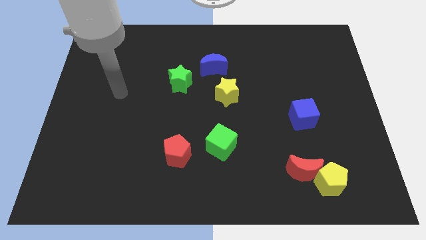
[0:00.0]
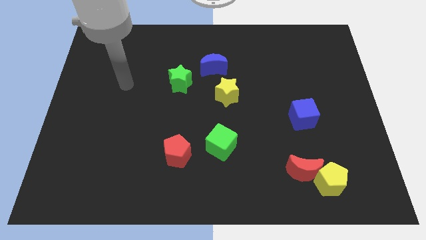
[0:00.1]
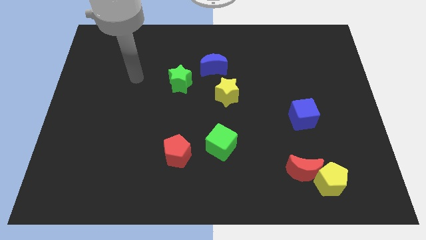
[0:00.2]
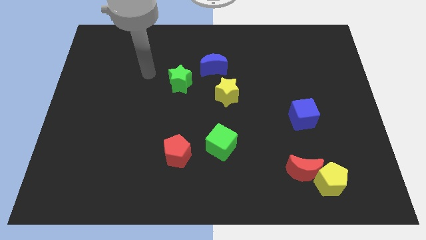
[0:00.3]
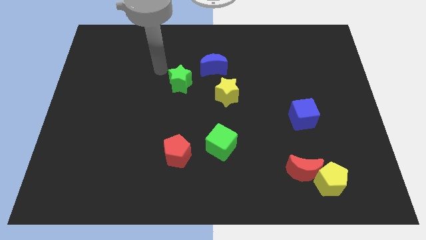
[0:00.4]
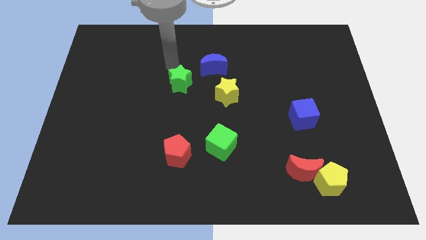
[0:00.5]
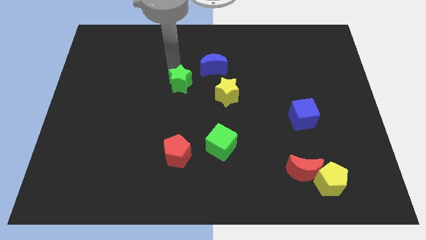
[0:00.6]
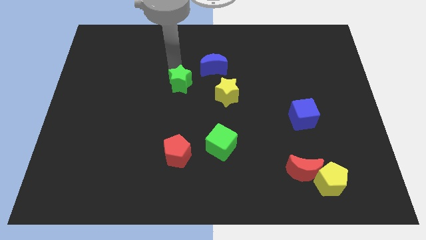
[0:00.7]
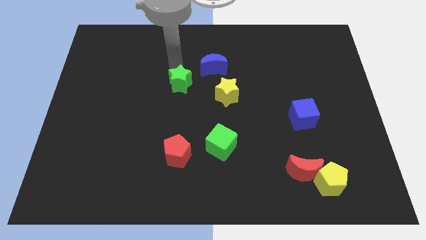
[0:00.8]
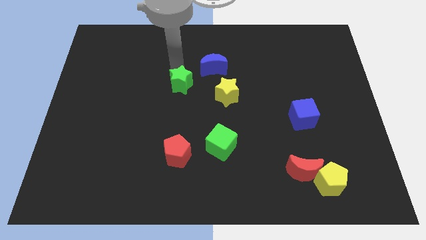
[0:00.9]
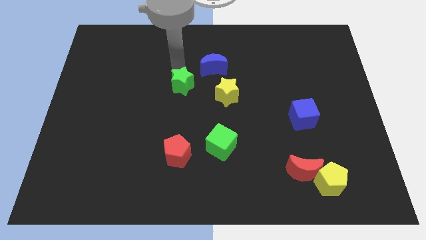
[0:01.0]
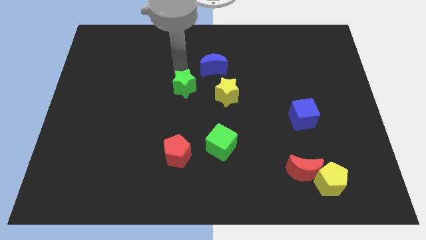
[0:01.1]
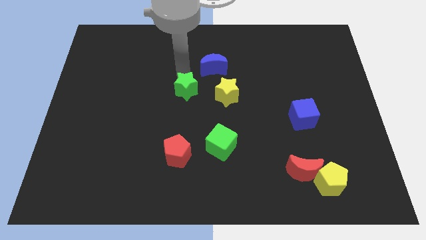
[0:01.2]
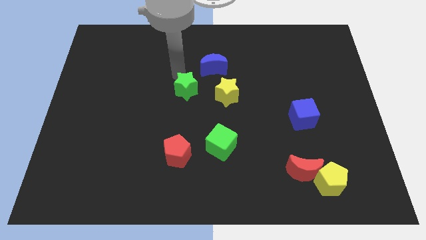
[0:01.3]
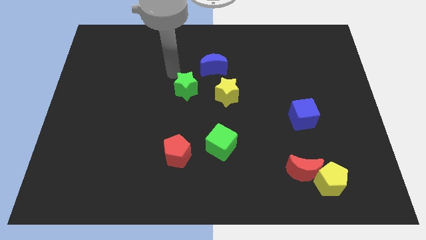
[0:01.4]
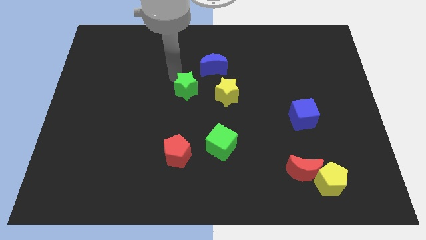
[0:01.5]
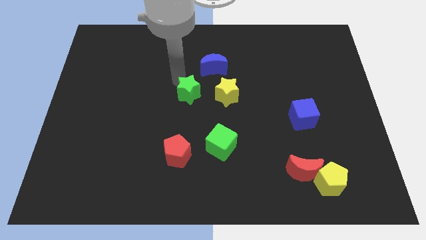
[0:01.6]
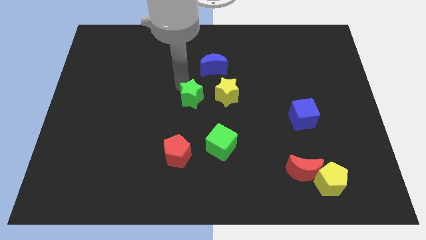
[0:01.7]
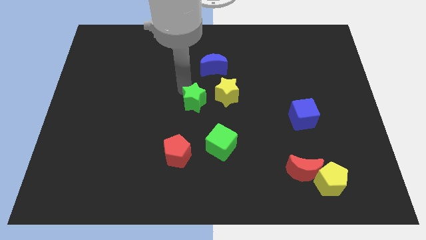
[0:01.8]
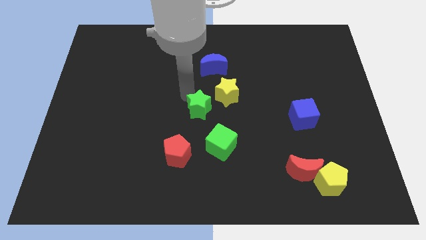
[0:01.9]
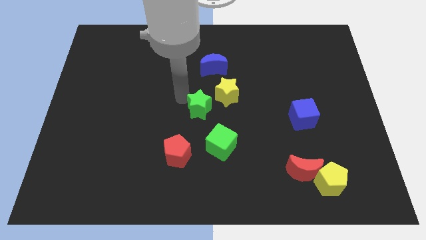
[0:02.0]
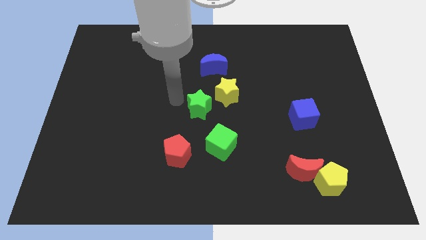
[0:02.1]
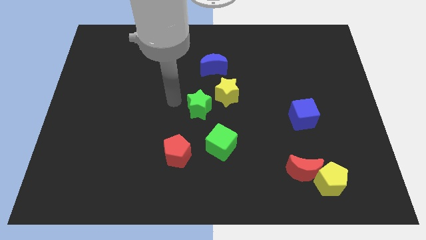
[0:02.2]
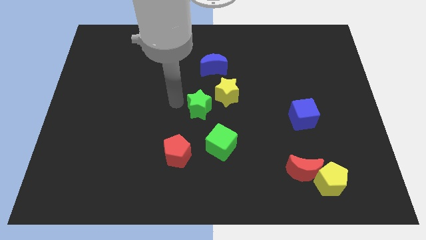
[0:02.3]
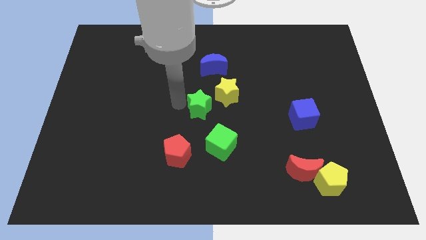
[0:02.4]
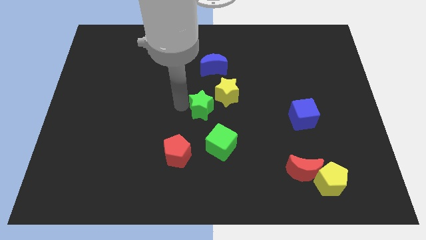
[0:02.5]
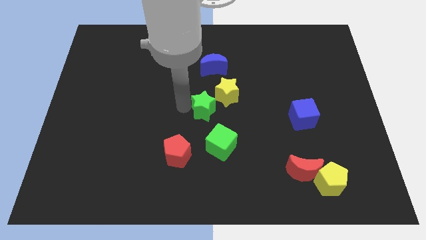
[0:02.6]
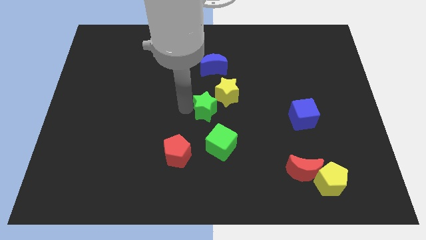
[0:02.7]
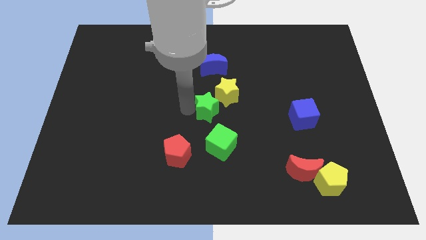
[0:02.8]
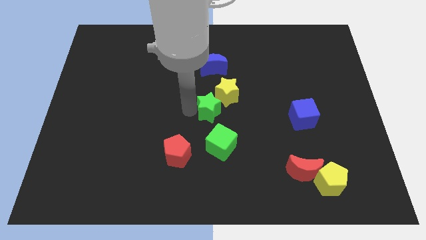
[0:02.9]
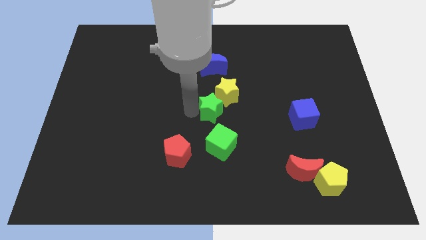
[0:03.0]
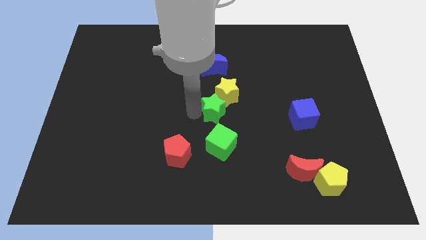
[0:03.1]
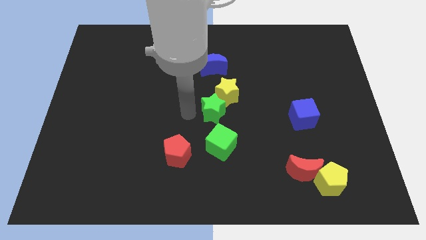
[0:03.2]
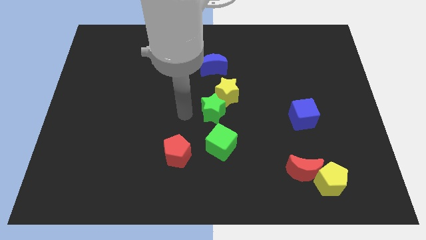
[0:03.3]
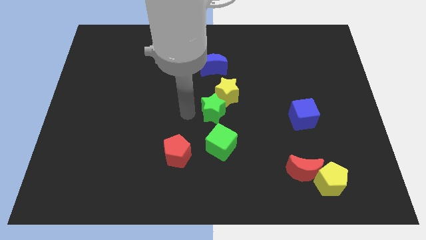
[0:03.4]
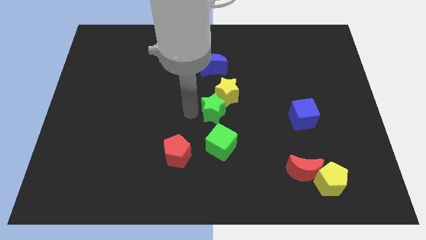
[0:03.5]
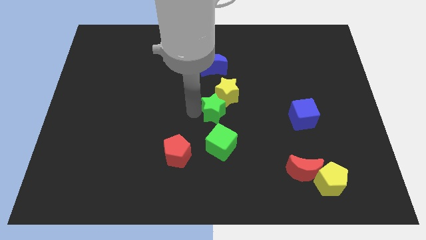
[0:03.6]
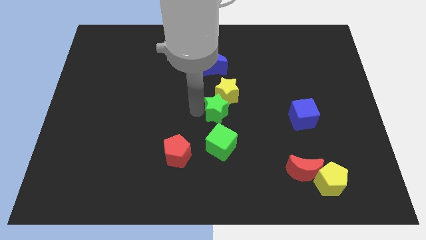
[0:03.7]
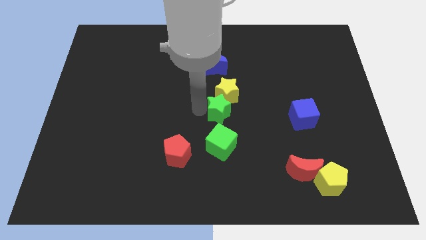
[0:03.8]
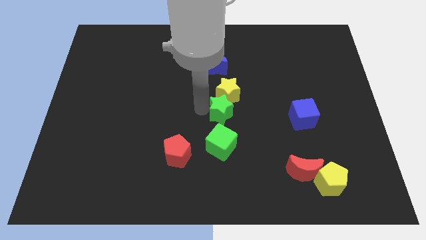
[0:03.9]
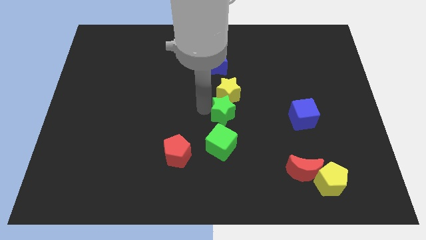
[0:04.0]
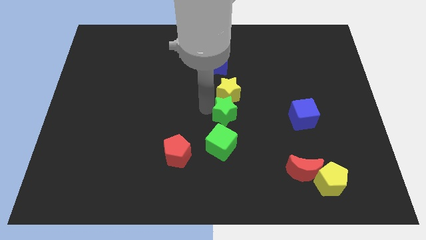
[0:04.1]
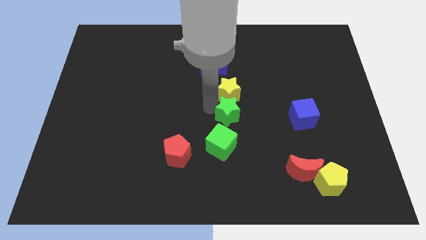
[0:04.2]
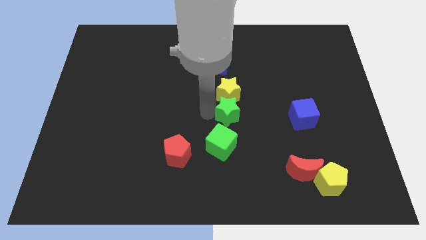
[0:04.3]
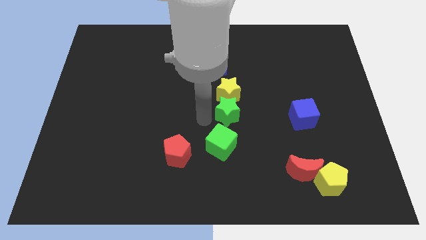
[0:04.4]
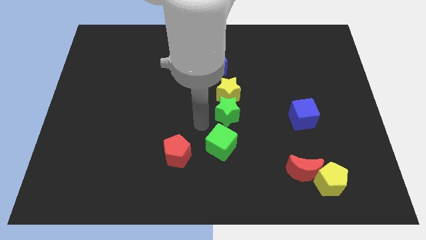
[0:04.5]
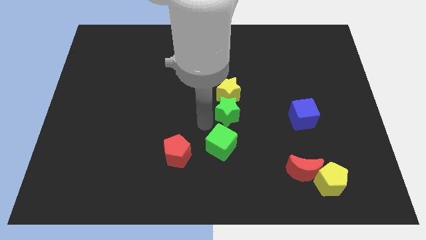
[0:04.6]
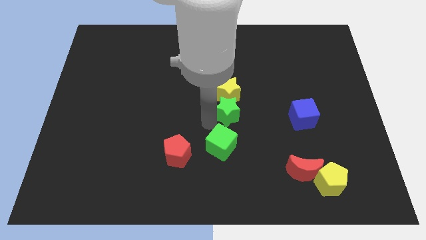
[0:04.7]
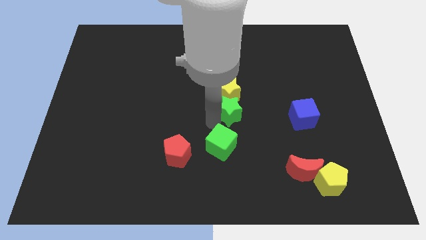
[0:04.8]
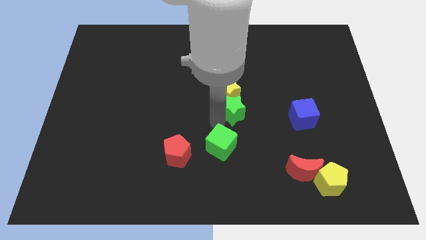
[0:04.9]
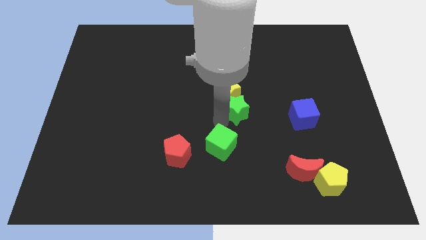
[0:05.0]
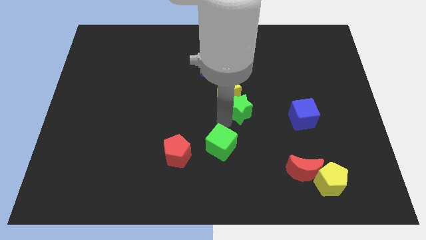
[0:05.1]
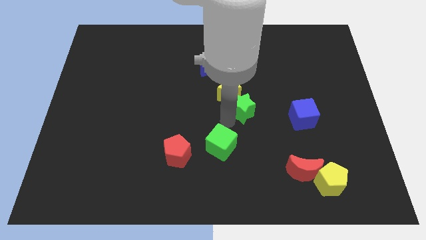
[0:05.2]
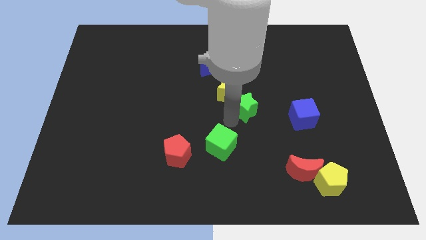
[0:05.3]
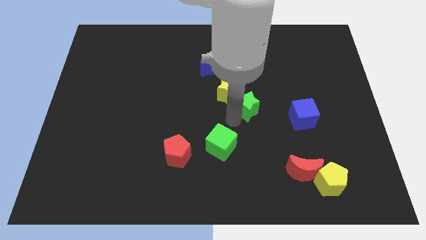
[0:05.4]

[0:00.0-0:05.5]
push the green star to the right of the yellow star

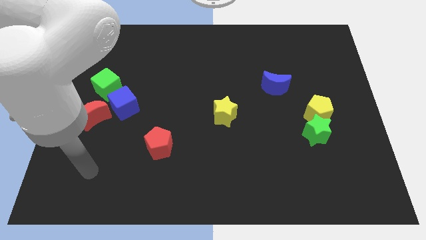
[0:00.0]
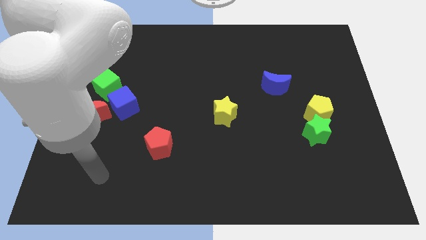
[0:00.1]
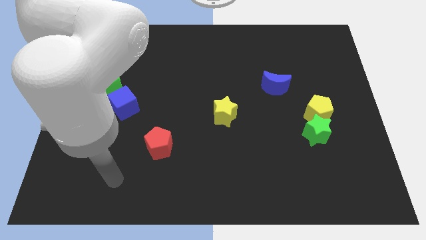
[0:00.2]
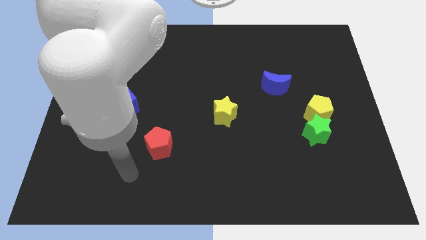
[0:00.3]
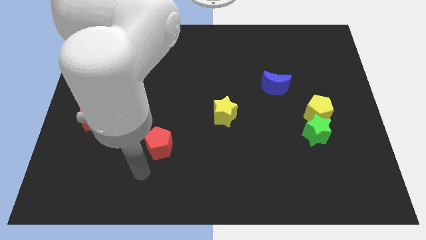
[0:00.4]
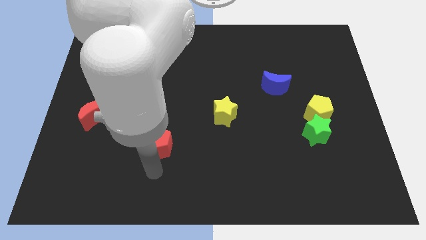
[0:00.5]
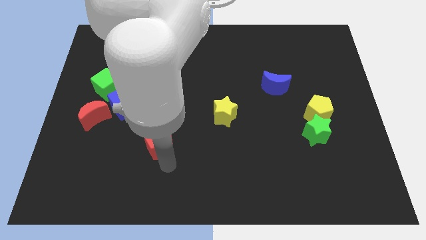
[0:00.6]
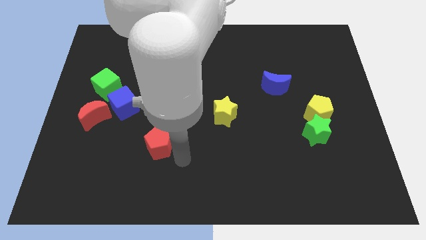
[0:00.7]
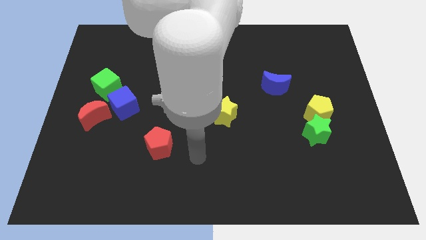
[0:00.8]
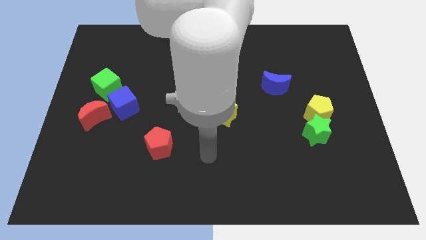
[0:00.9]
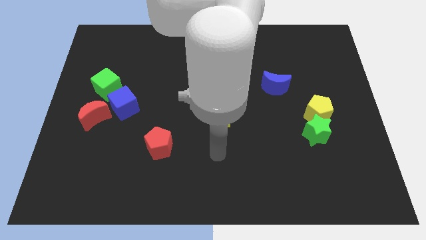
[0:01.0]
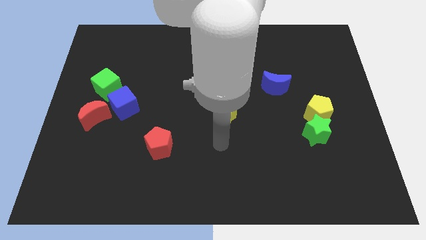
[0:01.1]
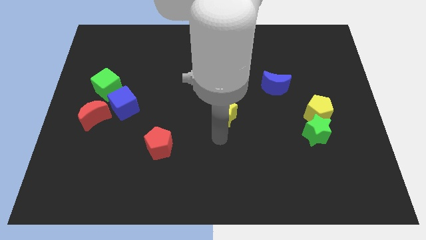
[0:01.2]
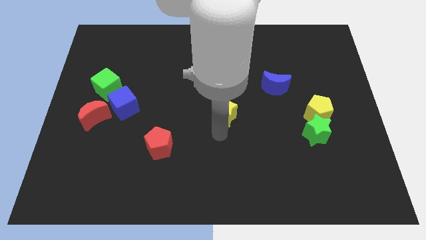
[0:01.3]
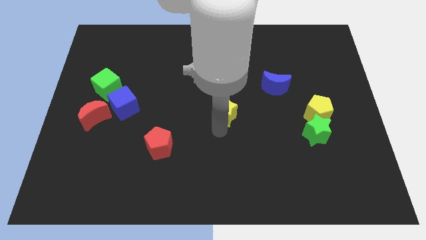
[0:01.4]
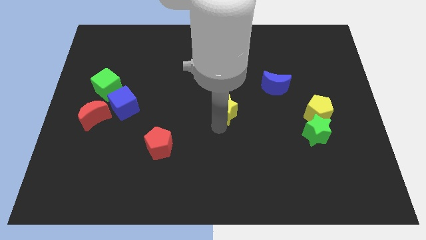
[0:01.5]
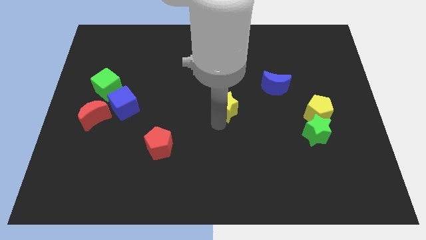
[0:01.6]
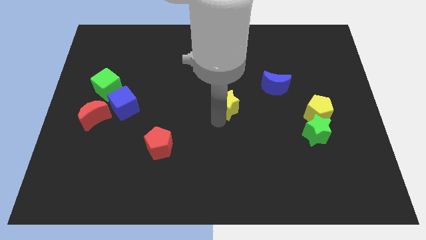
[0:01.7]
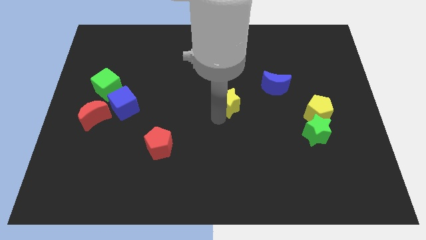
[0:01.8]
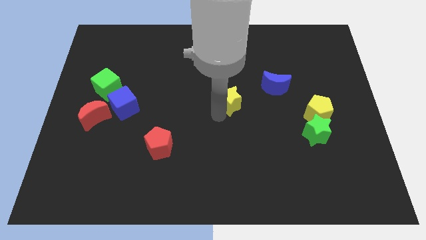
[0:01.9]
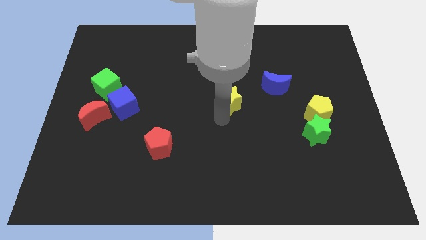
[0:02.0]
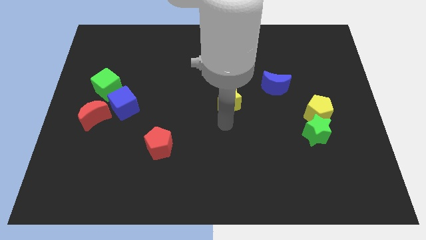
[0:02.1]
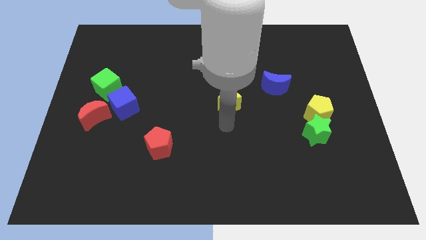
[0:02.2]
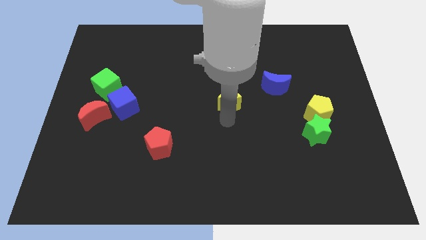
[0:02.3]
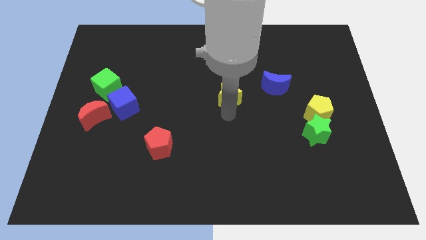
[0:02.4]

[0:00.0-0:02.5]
push the yellow star left of the blue moon
